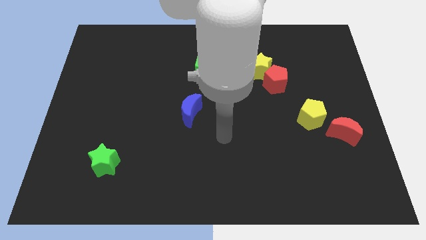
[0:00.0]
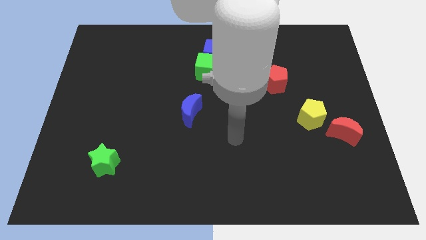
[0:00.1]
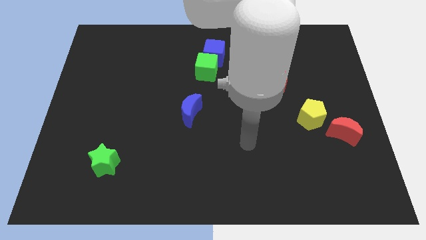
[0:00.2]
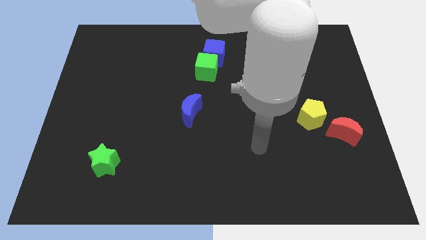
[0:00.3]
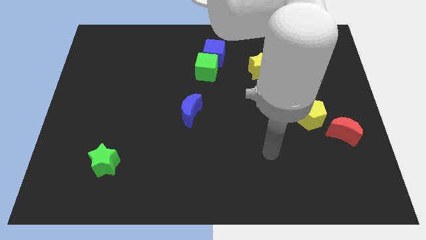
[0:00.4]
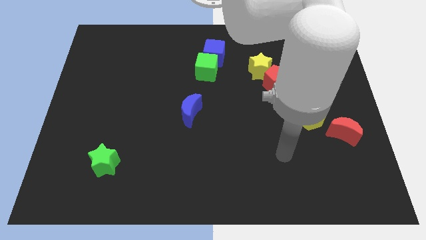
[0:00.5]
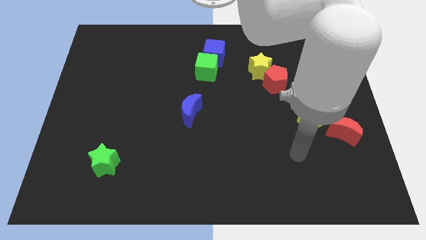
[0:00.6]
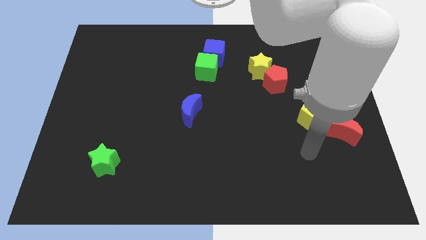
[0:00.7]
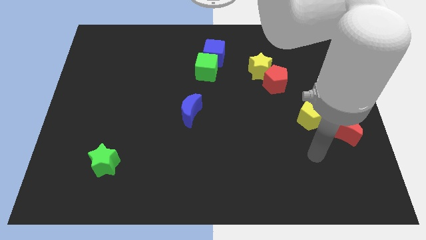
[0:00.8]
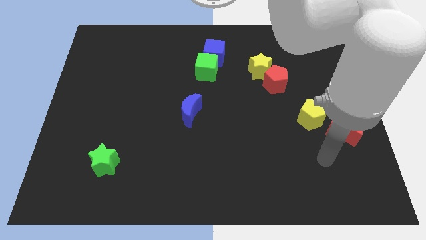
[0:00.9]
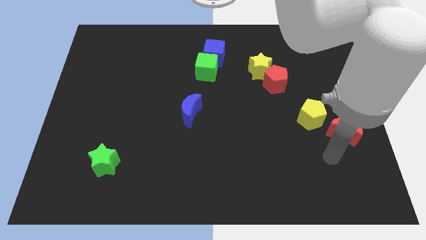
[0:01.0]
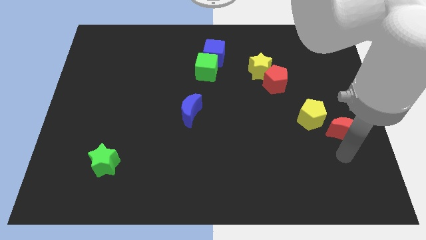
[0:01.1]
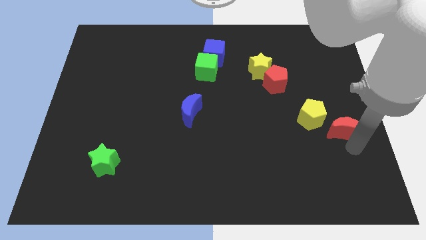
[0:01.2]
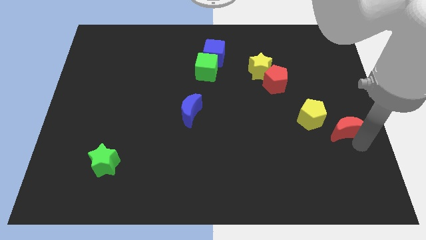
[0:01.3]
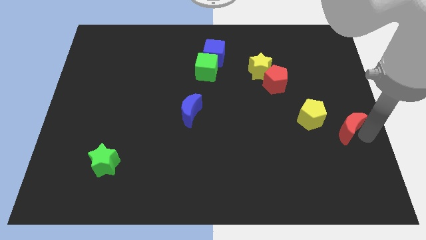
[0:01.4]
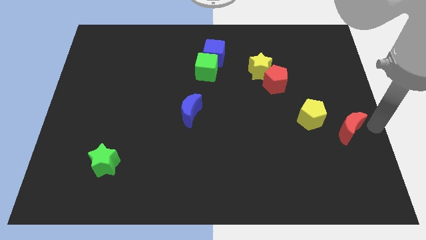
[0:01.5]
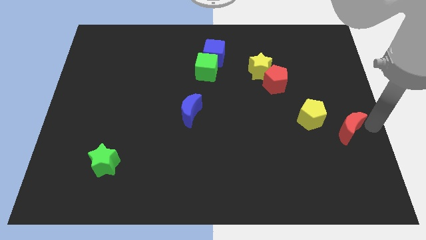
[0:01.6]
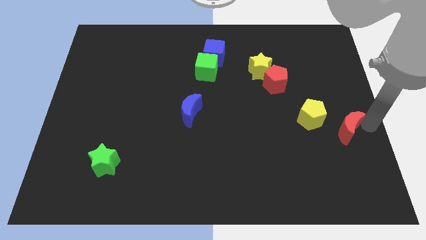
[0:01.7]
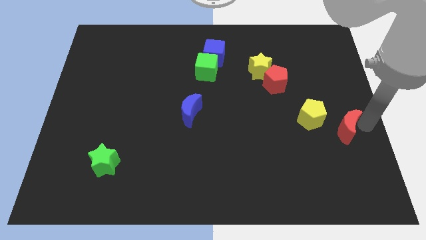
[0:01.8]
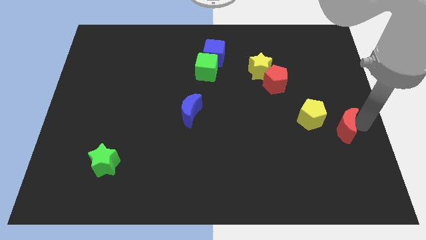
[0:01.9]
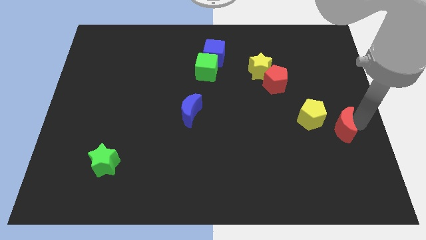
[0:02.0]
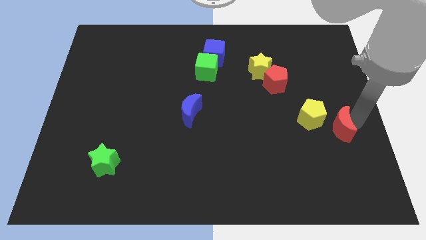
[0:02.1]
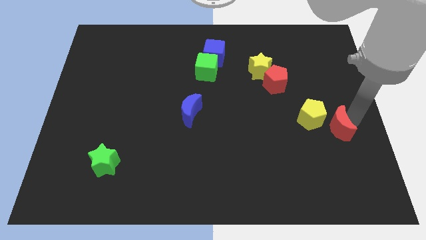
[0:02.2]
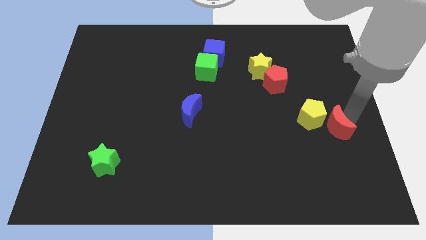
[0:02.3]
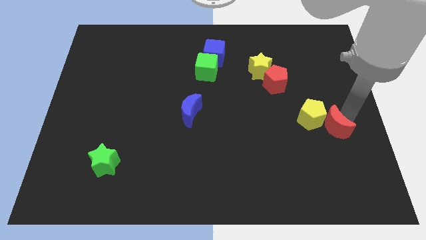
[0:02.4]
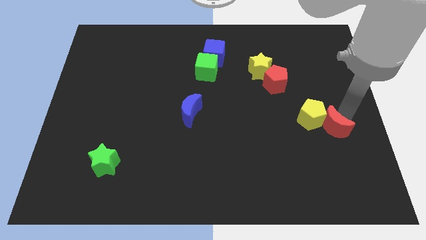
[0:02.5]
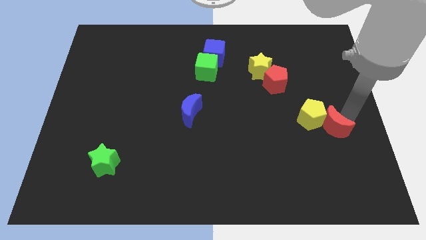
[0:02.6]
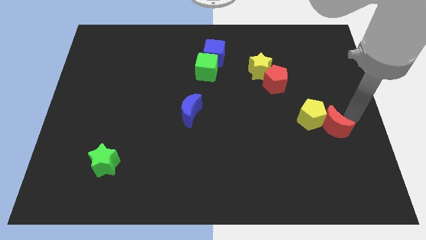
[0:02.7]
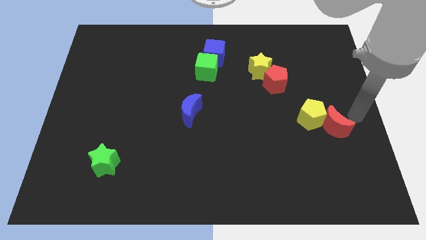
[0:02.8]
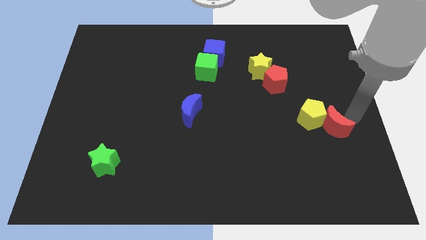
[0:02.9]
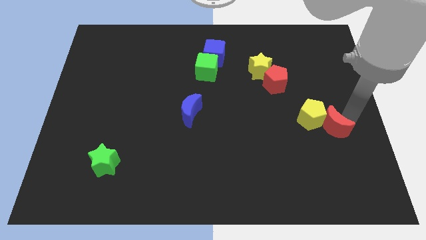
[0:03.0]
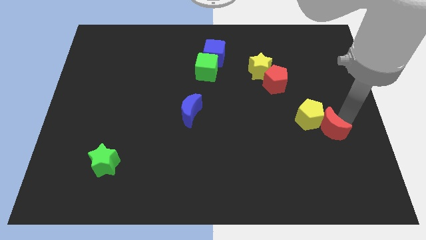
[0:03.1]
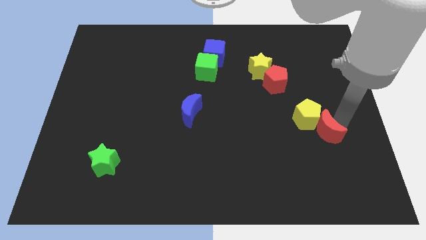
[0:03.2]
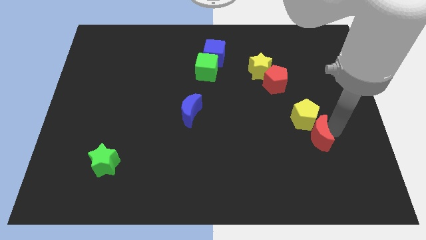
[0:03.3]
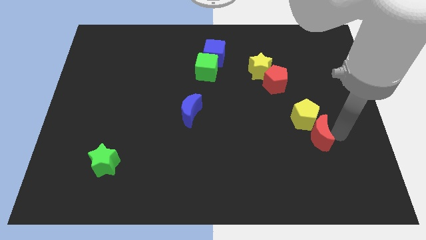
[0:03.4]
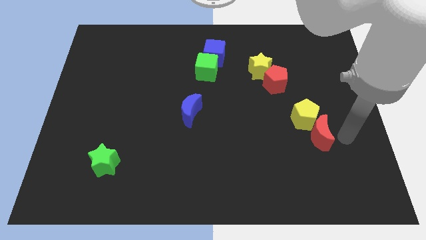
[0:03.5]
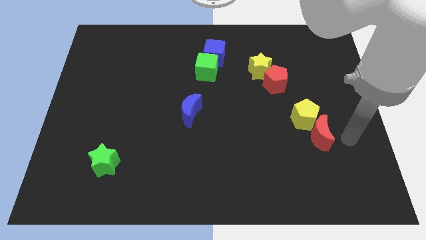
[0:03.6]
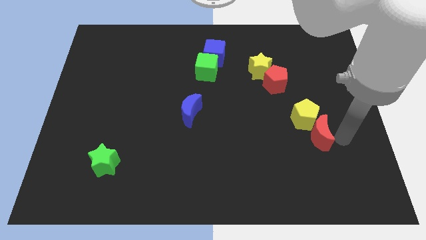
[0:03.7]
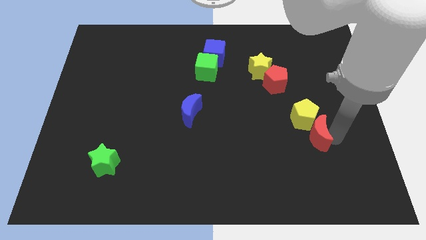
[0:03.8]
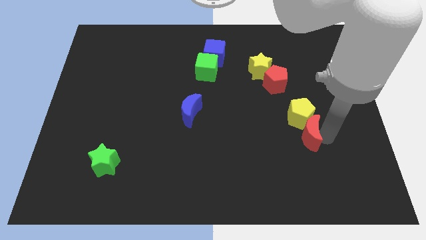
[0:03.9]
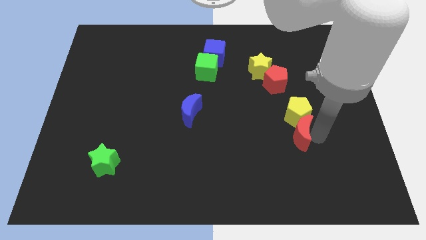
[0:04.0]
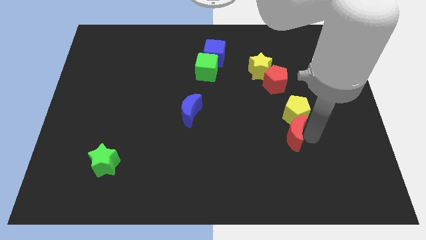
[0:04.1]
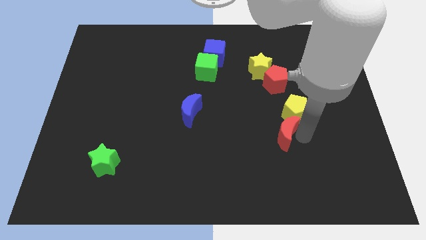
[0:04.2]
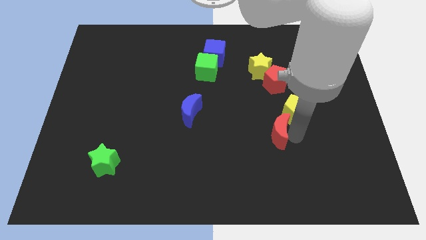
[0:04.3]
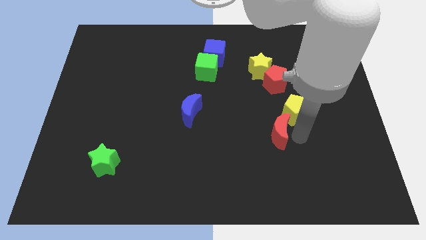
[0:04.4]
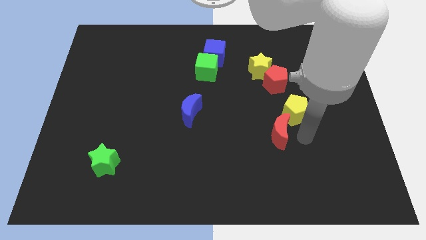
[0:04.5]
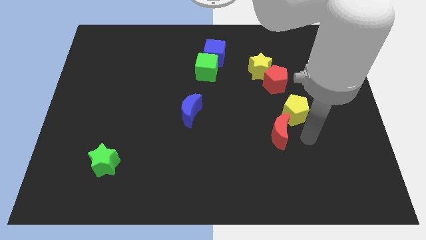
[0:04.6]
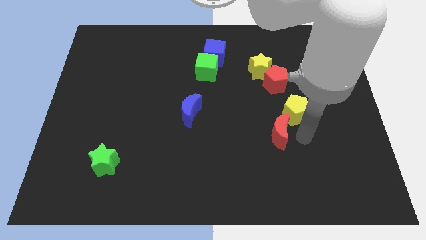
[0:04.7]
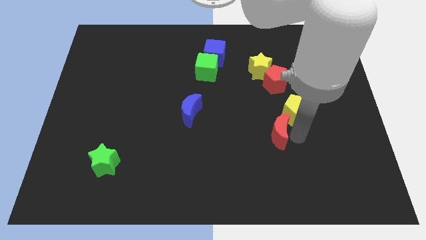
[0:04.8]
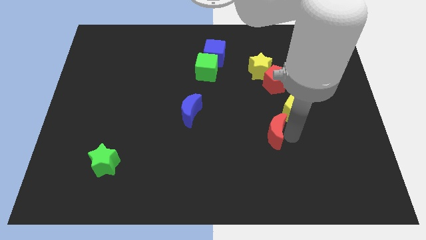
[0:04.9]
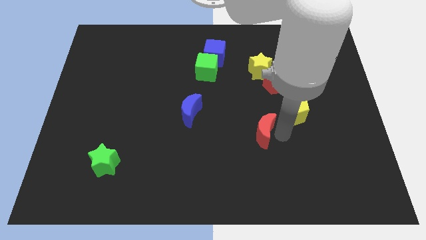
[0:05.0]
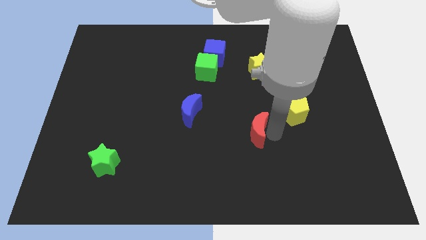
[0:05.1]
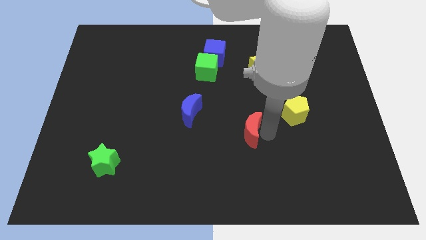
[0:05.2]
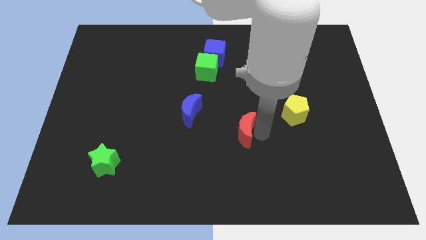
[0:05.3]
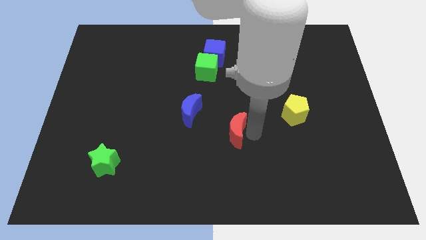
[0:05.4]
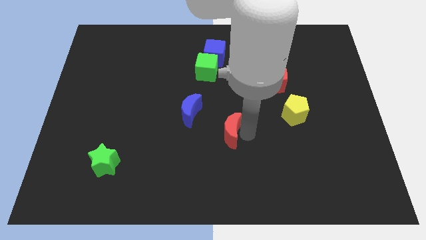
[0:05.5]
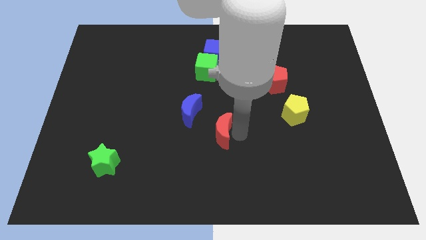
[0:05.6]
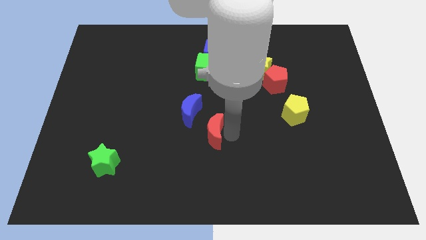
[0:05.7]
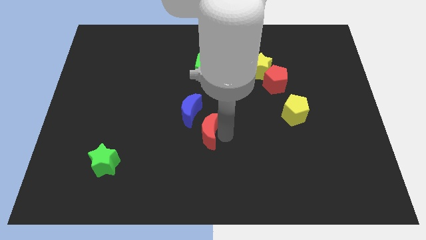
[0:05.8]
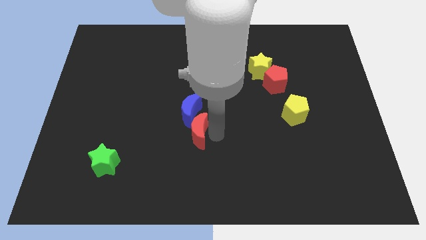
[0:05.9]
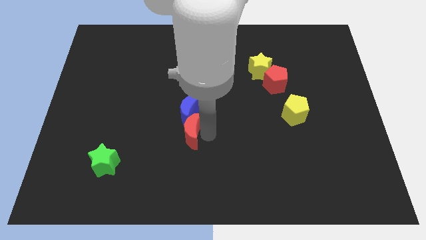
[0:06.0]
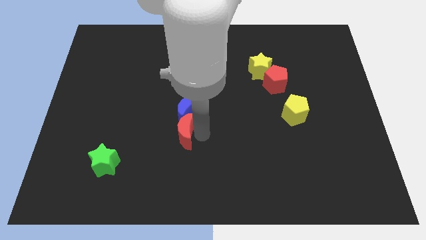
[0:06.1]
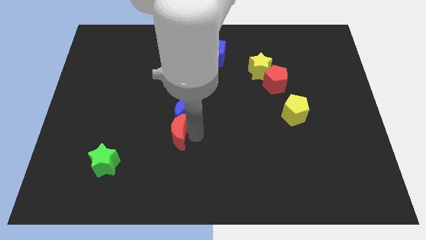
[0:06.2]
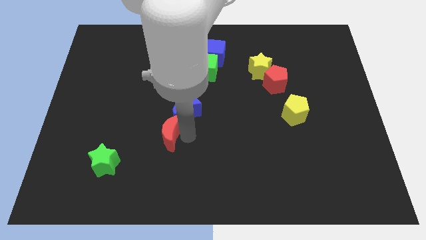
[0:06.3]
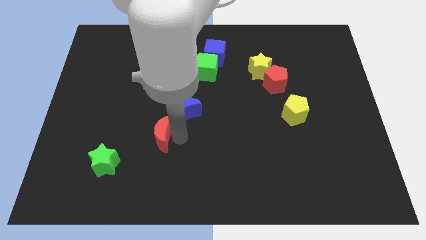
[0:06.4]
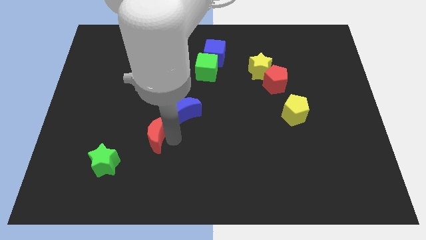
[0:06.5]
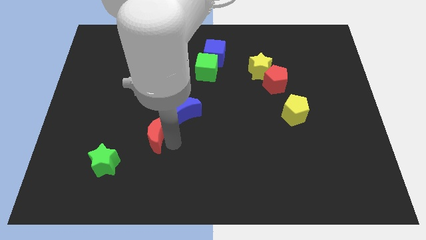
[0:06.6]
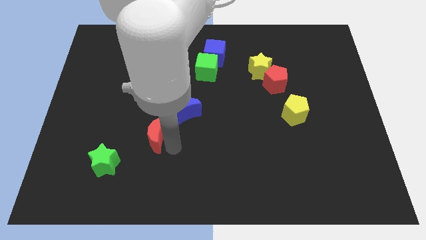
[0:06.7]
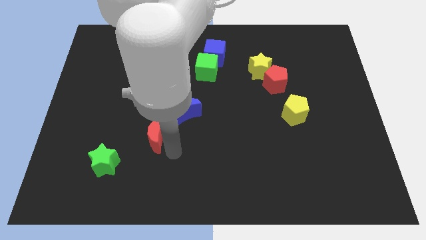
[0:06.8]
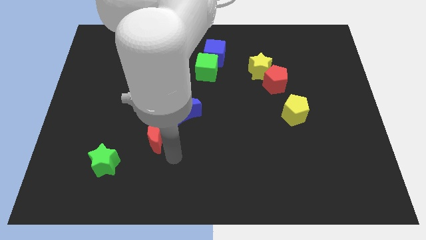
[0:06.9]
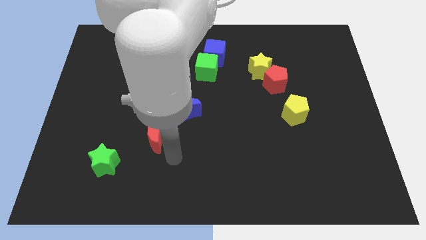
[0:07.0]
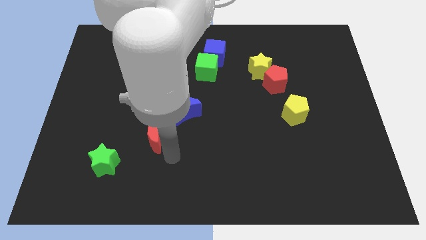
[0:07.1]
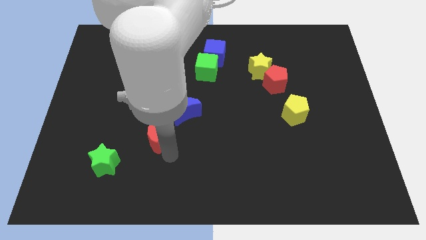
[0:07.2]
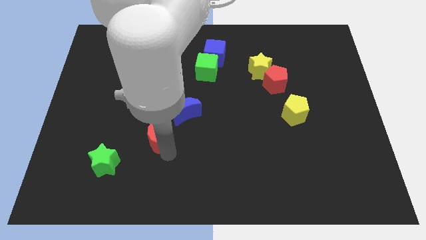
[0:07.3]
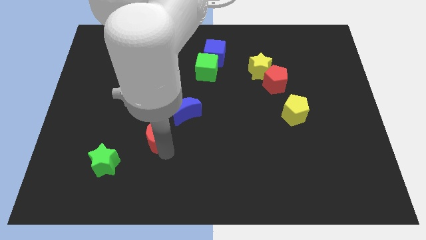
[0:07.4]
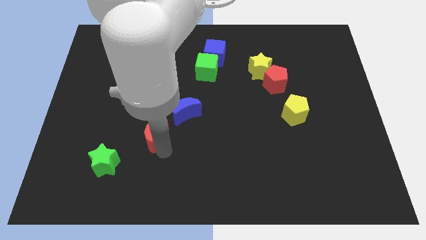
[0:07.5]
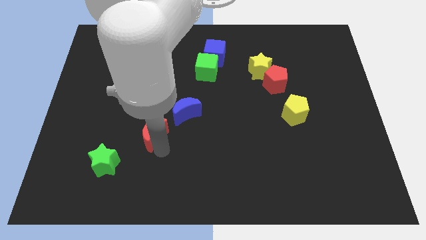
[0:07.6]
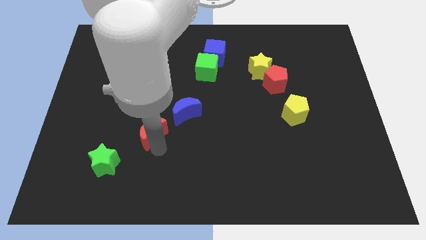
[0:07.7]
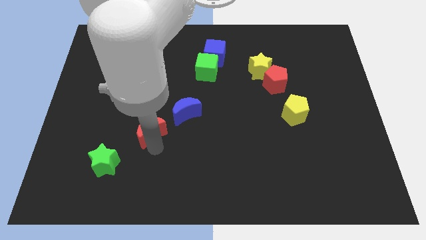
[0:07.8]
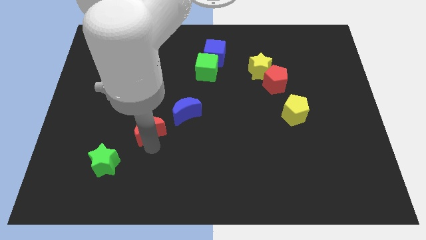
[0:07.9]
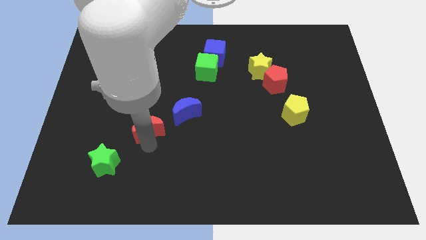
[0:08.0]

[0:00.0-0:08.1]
put the red moon just left of the blue moon
